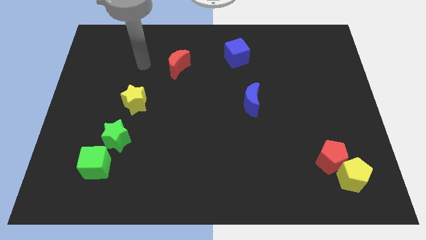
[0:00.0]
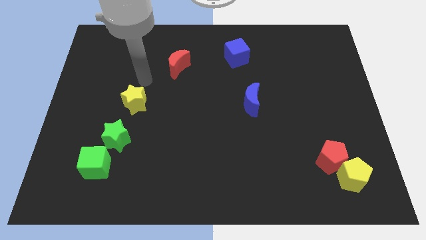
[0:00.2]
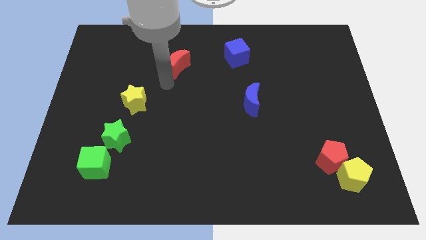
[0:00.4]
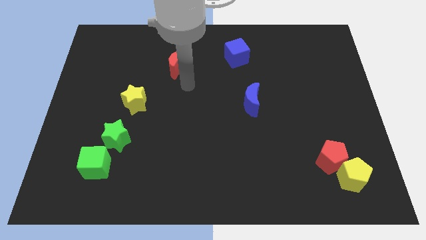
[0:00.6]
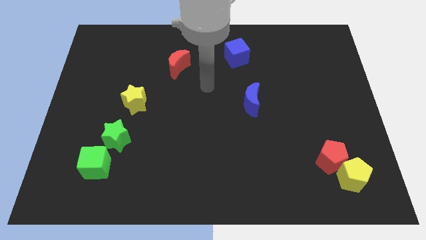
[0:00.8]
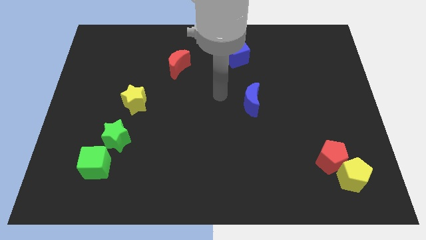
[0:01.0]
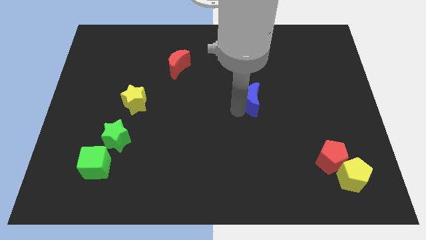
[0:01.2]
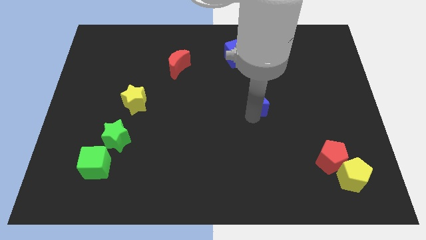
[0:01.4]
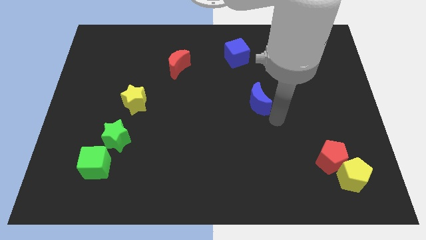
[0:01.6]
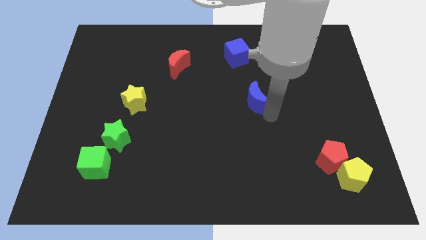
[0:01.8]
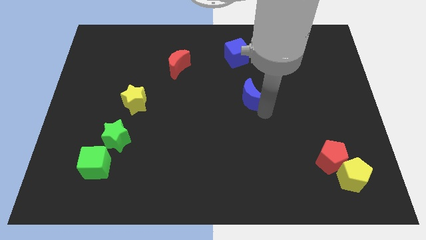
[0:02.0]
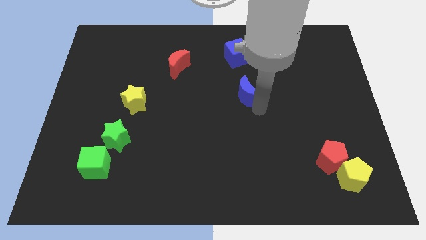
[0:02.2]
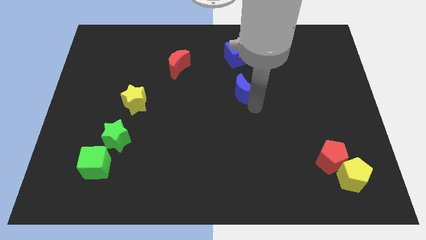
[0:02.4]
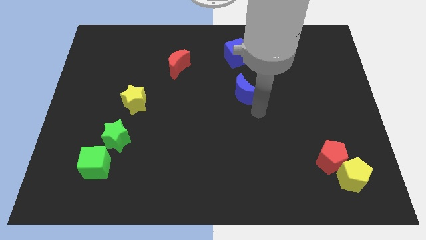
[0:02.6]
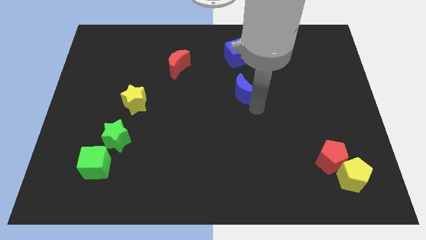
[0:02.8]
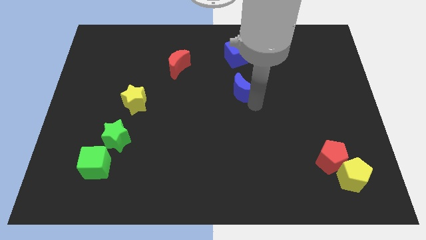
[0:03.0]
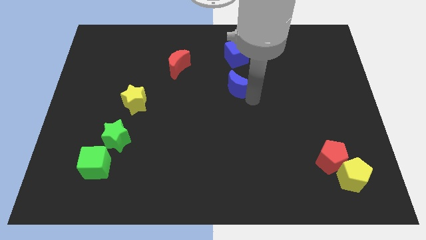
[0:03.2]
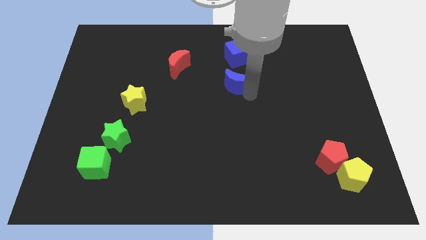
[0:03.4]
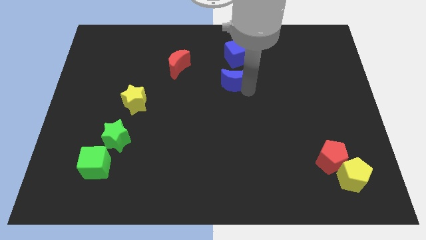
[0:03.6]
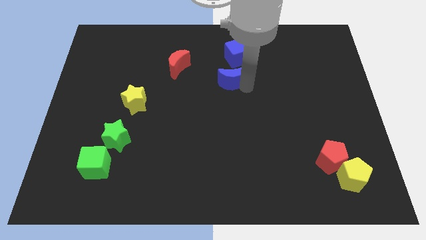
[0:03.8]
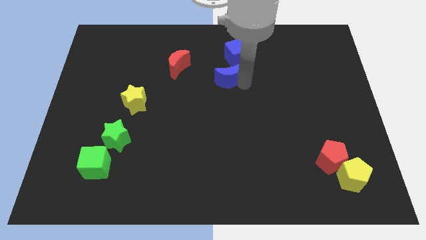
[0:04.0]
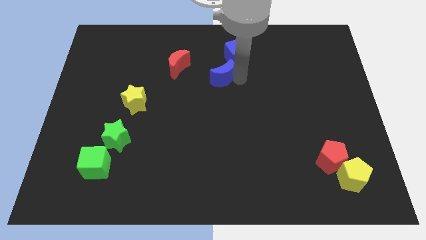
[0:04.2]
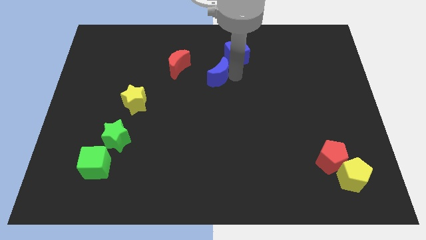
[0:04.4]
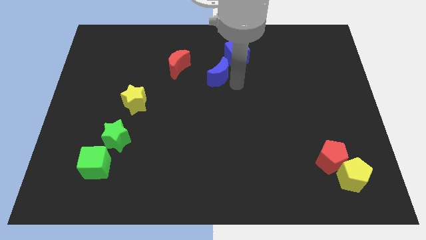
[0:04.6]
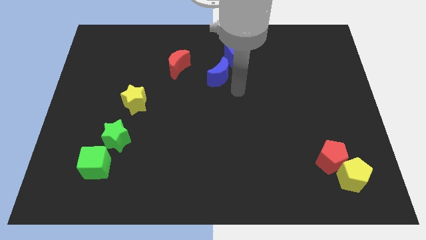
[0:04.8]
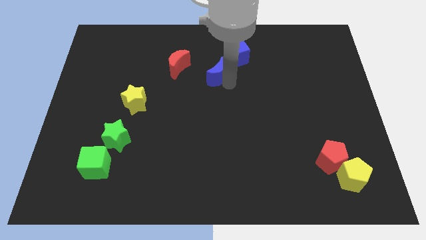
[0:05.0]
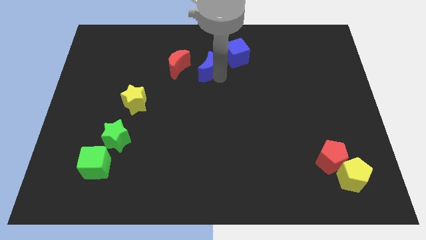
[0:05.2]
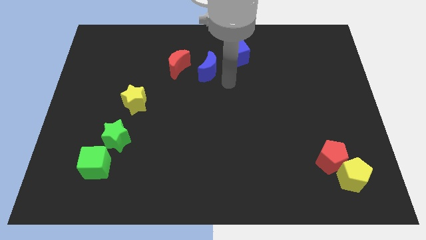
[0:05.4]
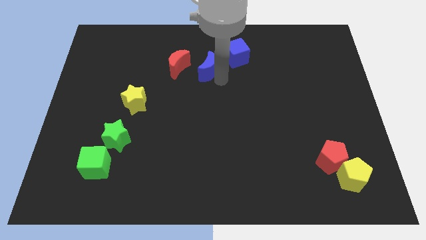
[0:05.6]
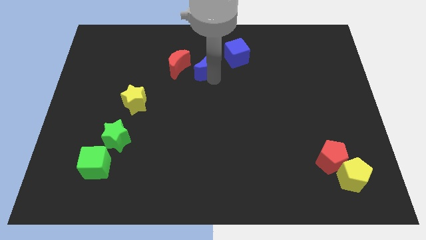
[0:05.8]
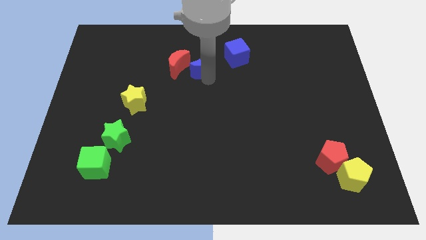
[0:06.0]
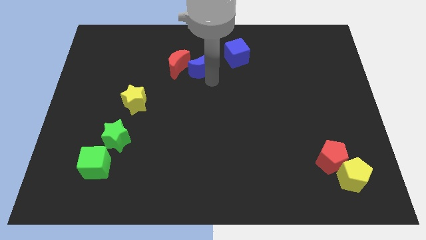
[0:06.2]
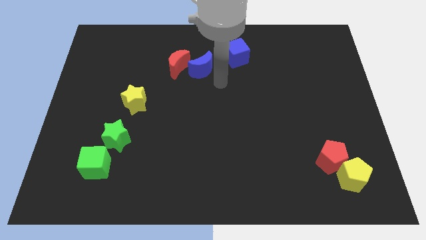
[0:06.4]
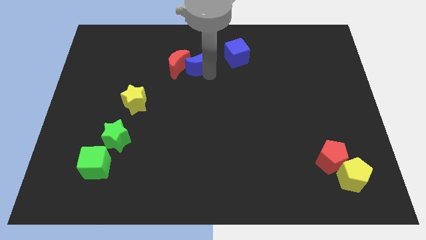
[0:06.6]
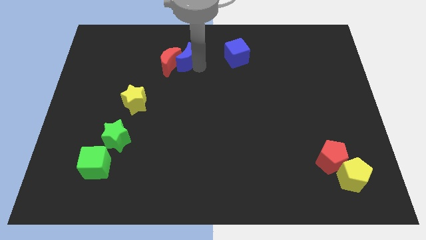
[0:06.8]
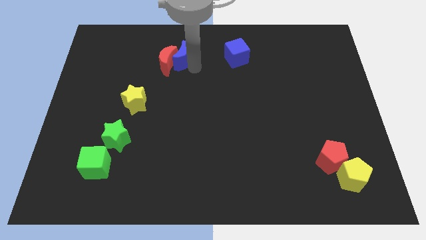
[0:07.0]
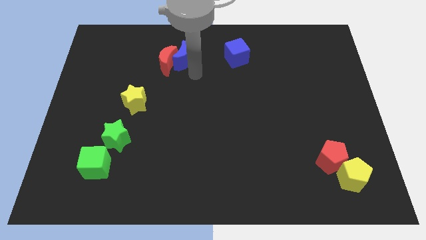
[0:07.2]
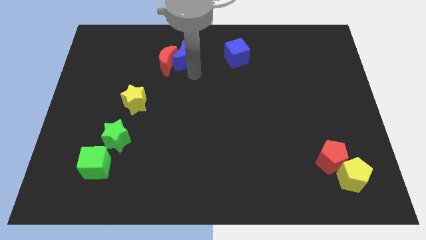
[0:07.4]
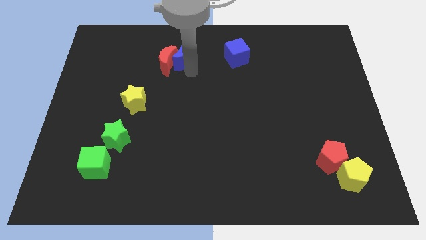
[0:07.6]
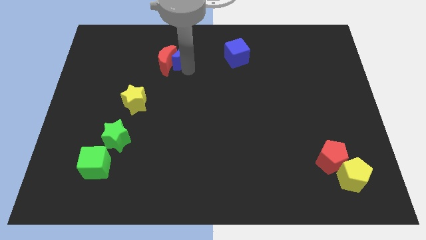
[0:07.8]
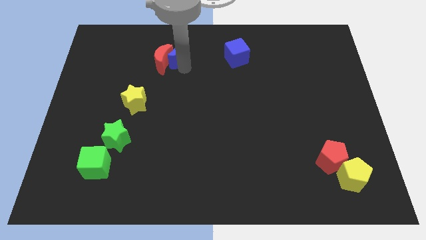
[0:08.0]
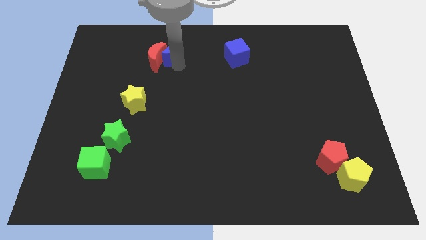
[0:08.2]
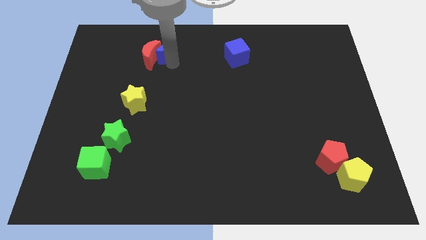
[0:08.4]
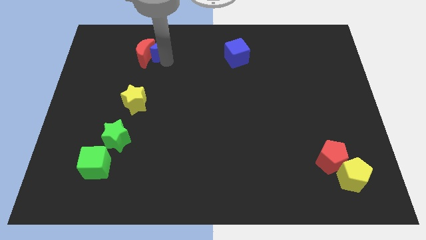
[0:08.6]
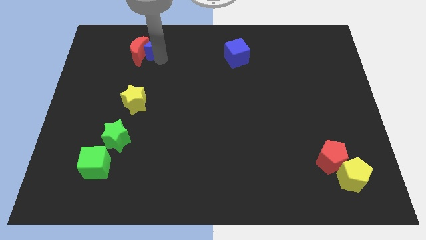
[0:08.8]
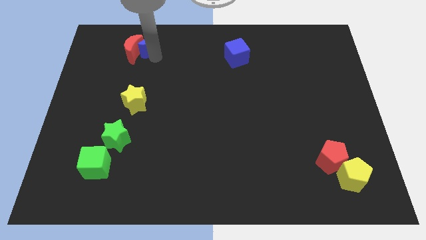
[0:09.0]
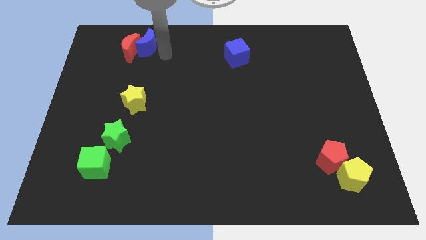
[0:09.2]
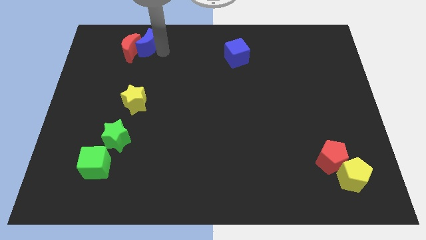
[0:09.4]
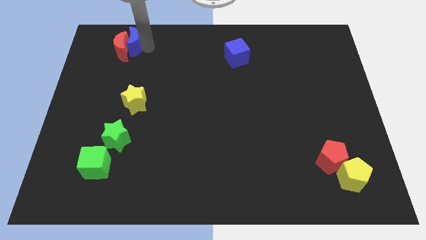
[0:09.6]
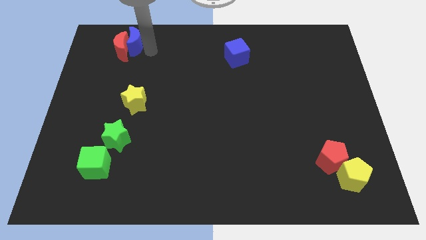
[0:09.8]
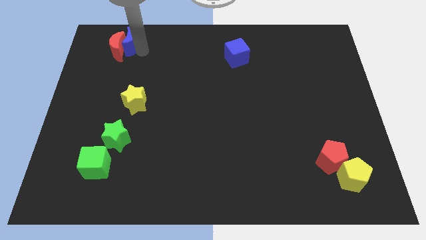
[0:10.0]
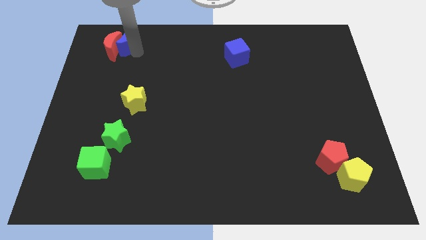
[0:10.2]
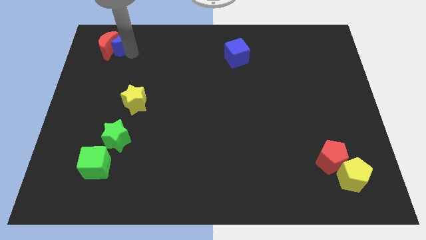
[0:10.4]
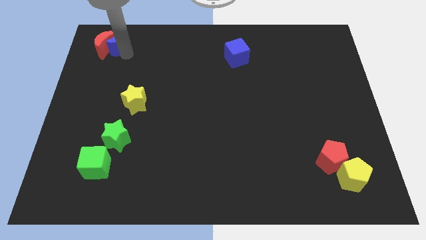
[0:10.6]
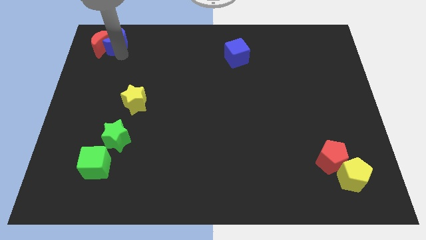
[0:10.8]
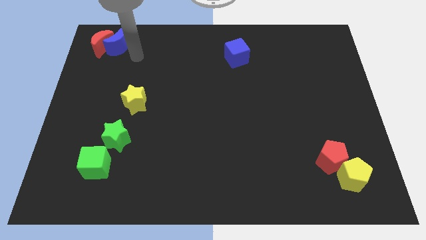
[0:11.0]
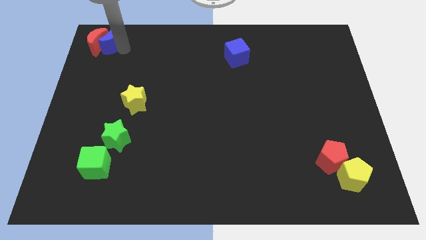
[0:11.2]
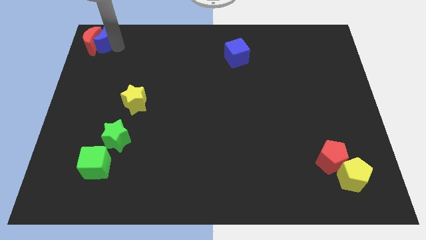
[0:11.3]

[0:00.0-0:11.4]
move the blue moon to the top left
